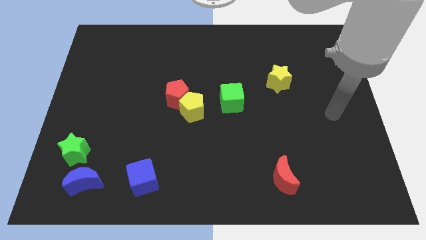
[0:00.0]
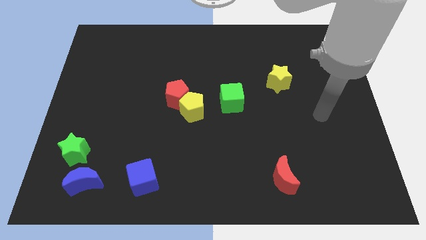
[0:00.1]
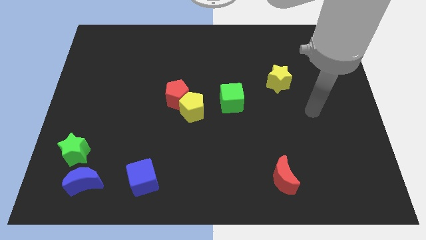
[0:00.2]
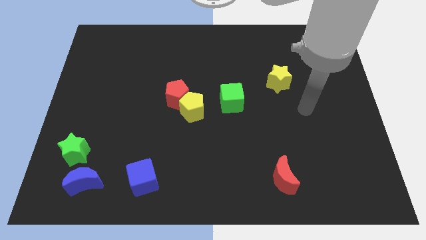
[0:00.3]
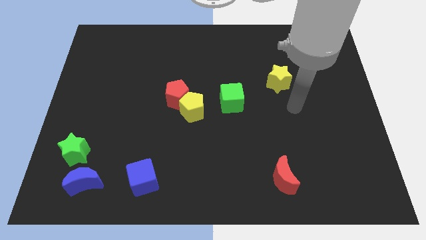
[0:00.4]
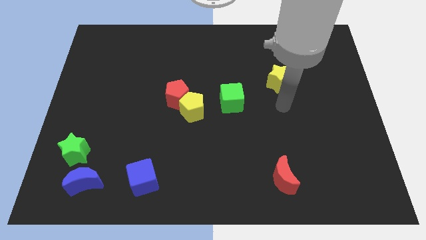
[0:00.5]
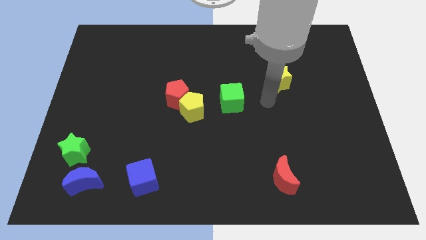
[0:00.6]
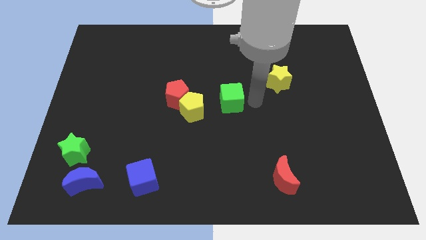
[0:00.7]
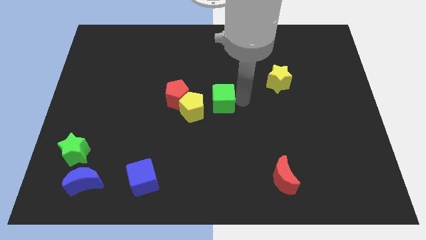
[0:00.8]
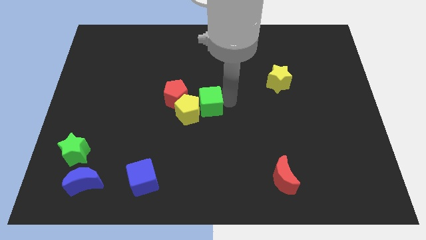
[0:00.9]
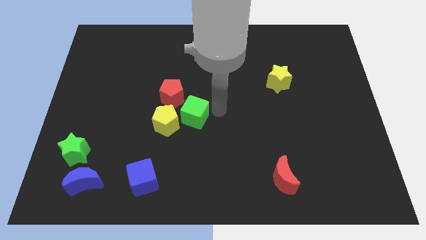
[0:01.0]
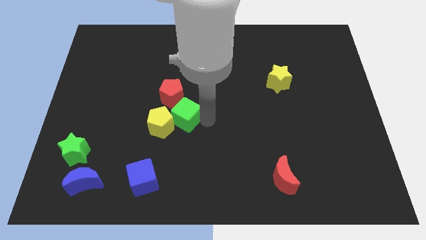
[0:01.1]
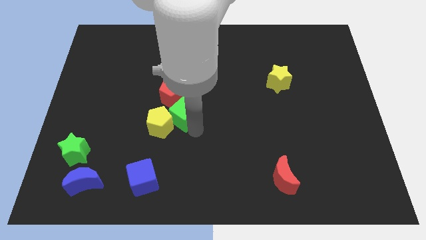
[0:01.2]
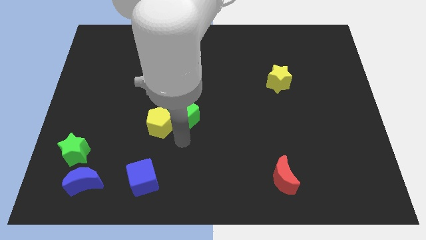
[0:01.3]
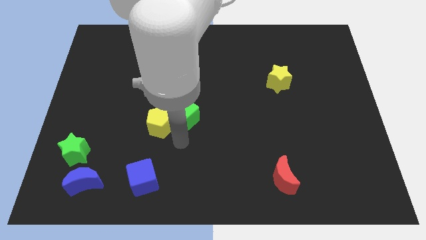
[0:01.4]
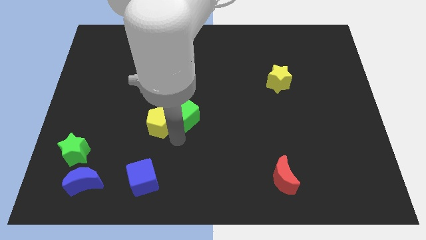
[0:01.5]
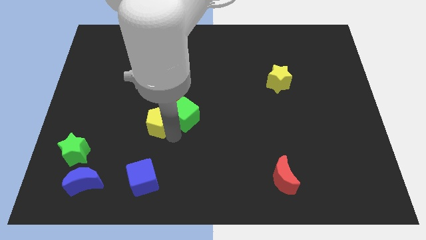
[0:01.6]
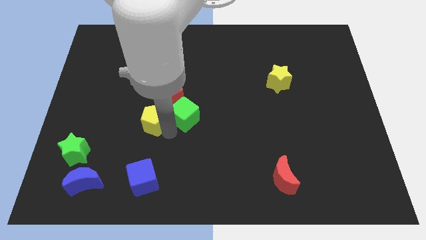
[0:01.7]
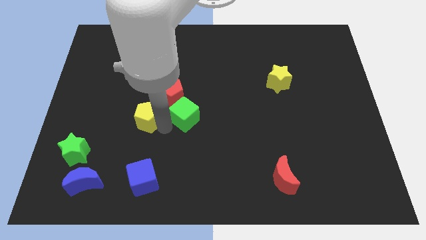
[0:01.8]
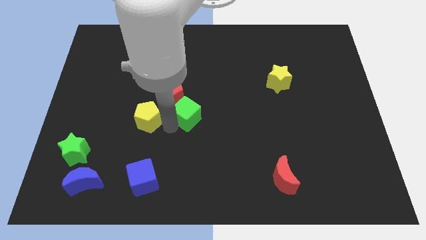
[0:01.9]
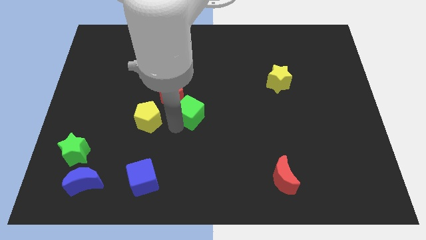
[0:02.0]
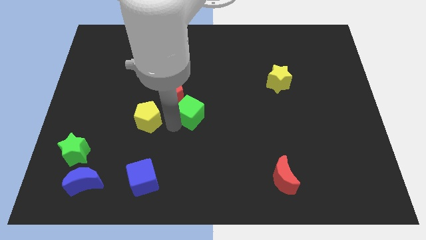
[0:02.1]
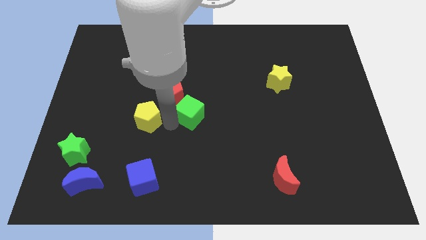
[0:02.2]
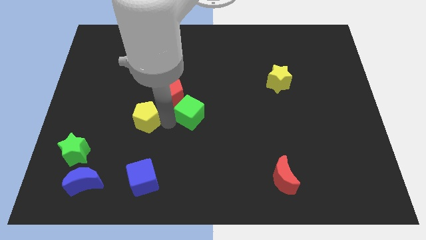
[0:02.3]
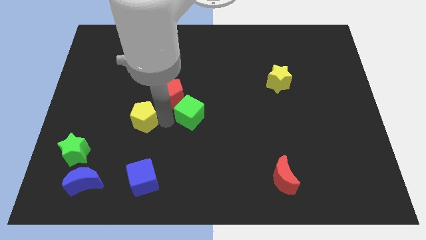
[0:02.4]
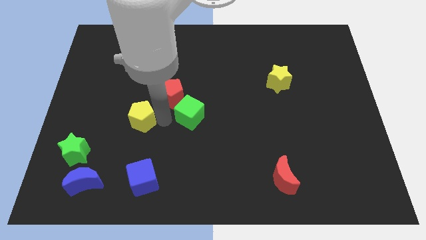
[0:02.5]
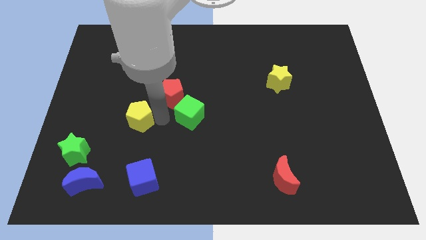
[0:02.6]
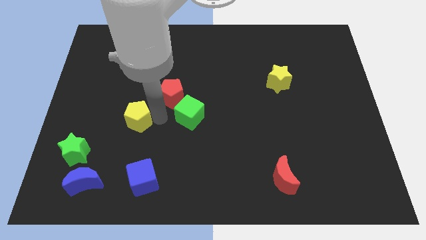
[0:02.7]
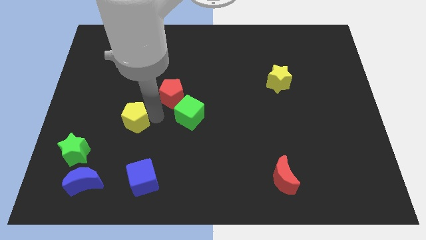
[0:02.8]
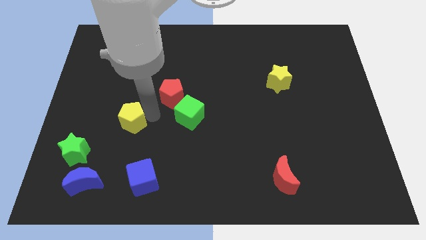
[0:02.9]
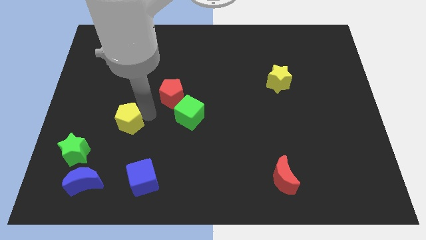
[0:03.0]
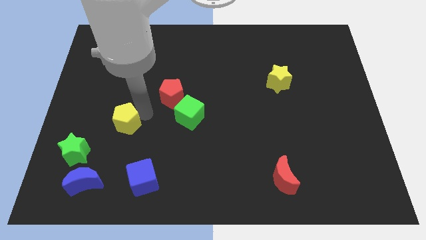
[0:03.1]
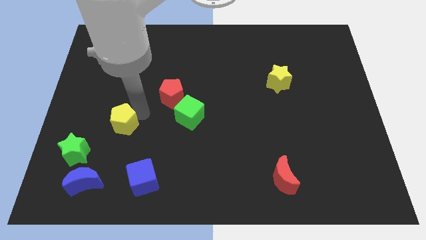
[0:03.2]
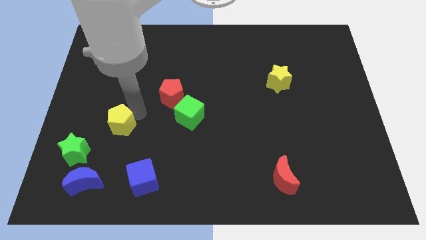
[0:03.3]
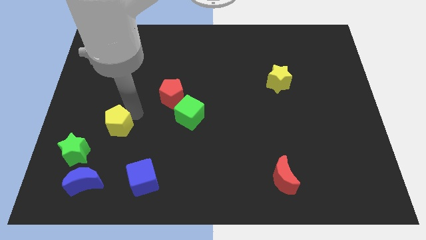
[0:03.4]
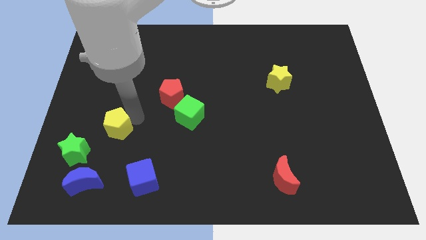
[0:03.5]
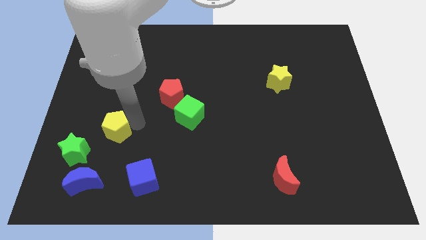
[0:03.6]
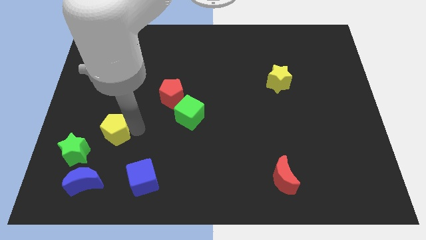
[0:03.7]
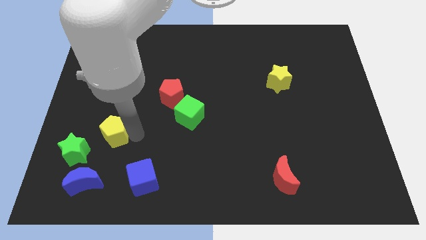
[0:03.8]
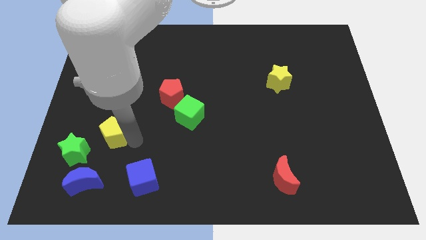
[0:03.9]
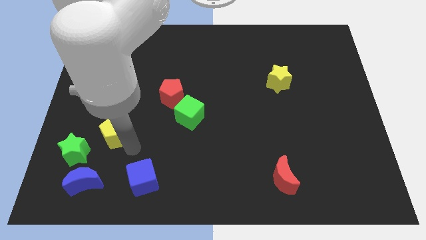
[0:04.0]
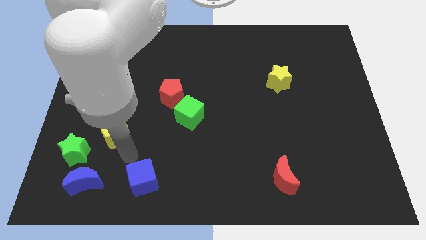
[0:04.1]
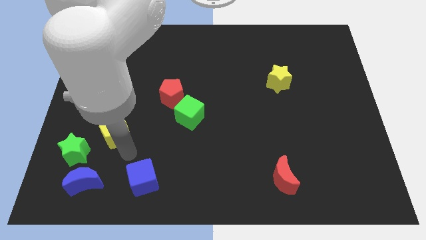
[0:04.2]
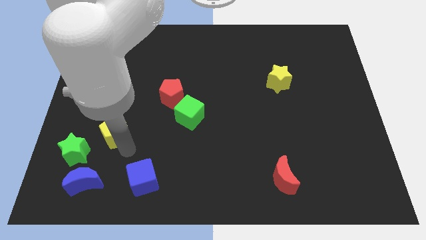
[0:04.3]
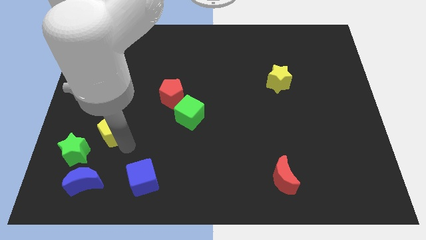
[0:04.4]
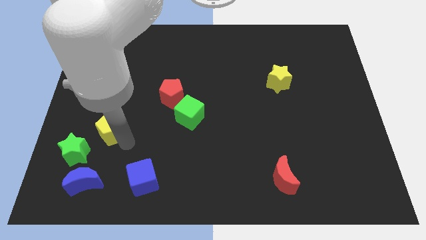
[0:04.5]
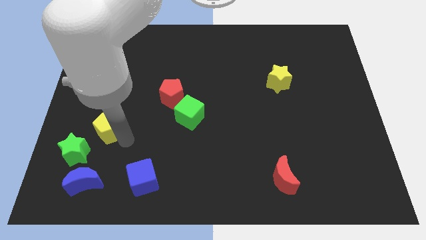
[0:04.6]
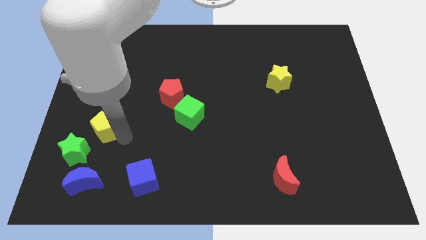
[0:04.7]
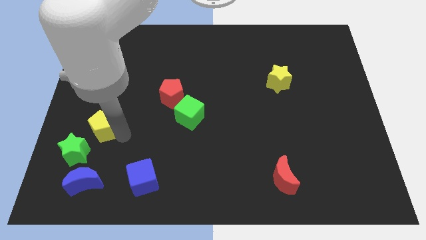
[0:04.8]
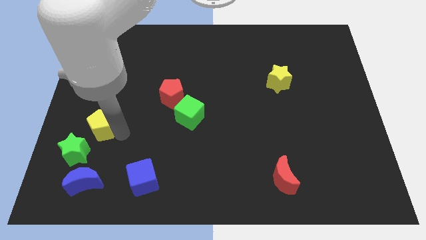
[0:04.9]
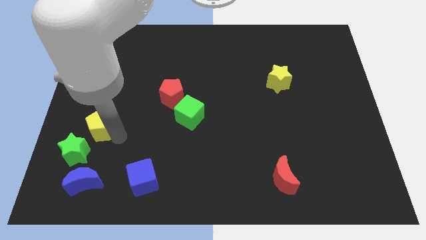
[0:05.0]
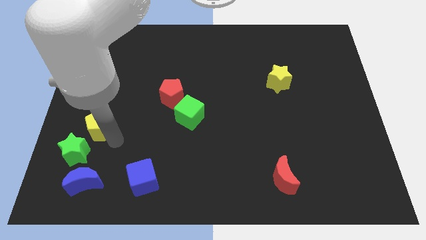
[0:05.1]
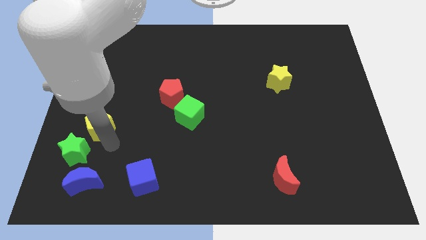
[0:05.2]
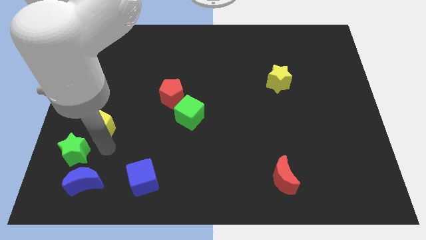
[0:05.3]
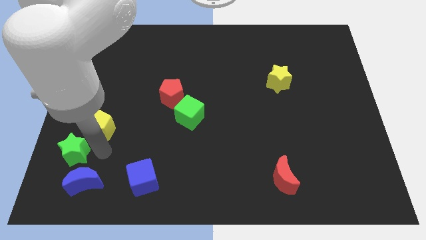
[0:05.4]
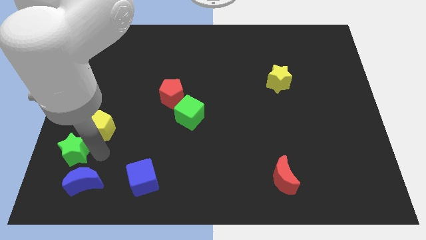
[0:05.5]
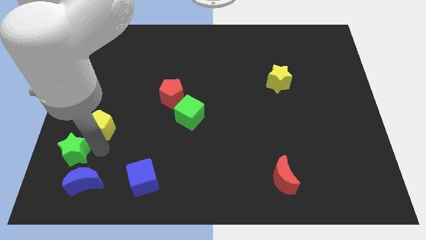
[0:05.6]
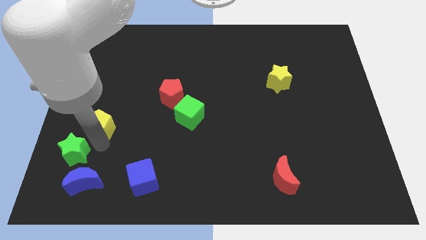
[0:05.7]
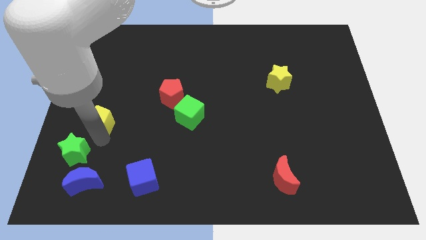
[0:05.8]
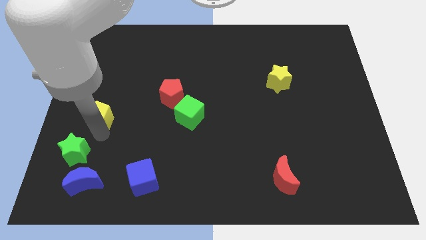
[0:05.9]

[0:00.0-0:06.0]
slide the yellow pentagon to the center left
